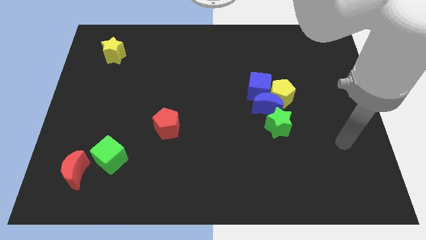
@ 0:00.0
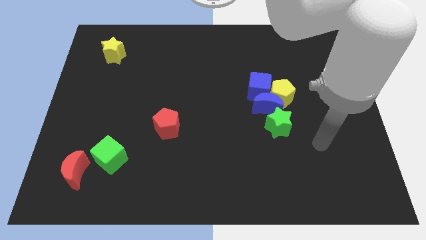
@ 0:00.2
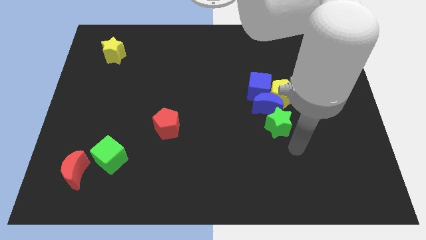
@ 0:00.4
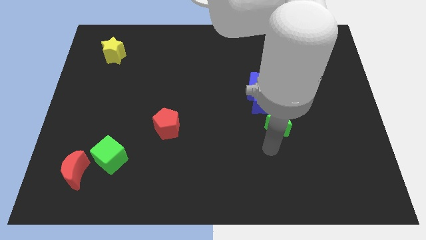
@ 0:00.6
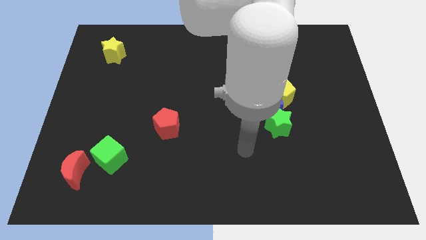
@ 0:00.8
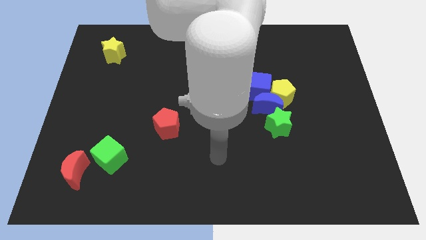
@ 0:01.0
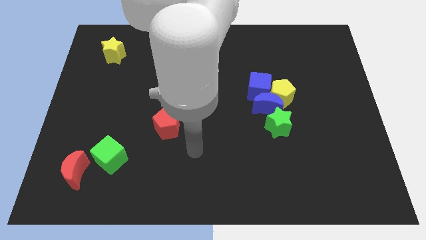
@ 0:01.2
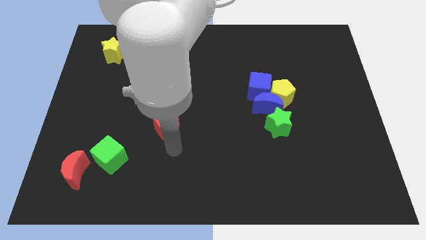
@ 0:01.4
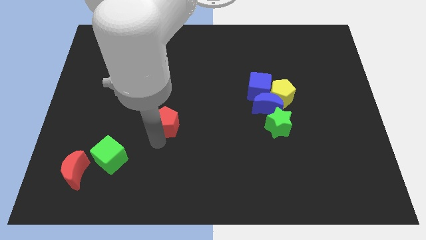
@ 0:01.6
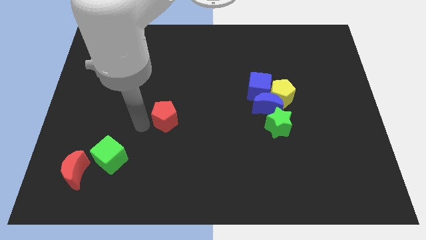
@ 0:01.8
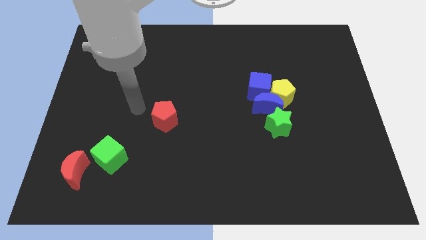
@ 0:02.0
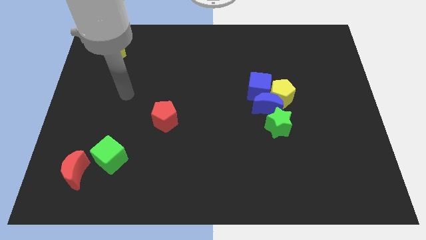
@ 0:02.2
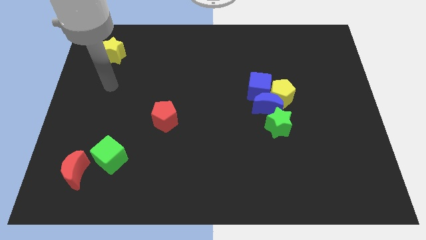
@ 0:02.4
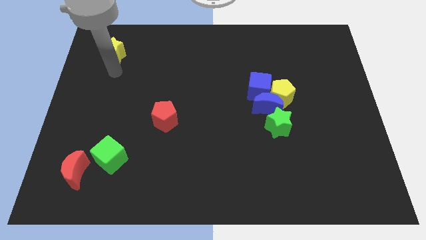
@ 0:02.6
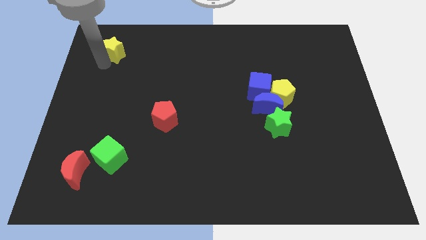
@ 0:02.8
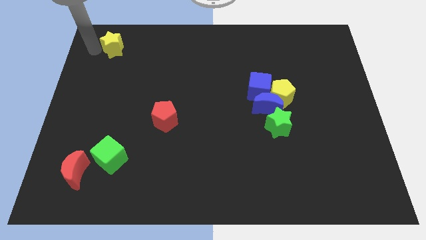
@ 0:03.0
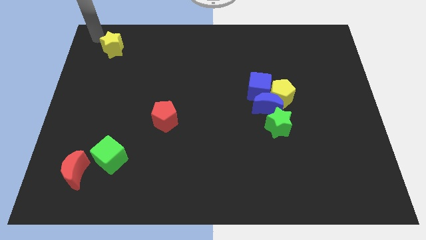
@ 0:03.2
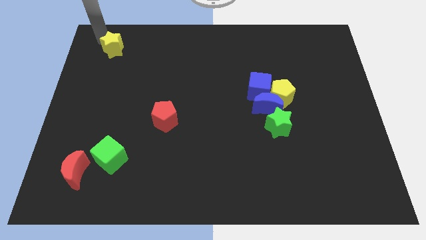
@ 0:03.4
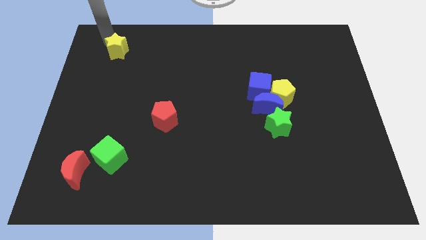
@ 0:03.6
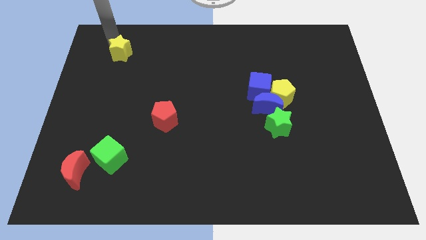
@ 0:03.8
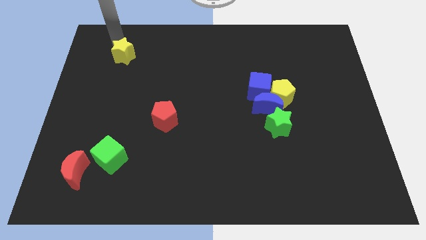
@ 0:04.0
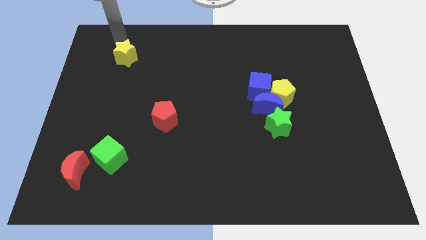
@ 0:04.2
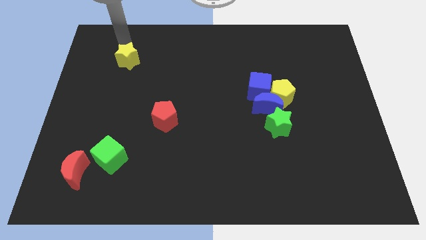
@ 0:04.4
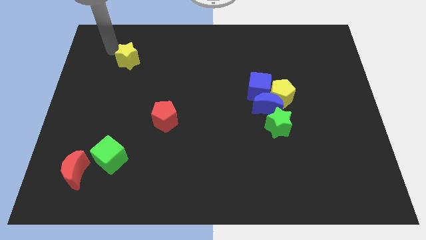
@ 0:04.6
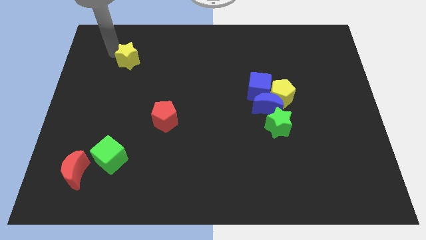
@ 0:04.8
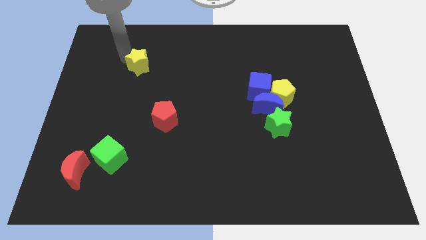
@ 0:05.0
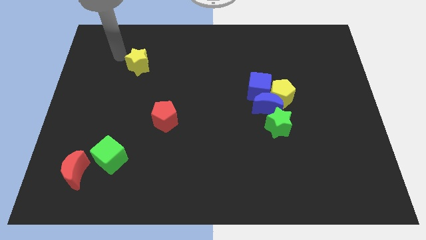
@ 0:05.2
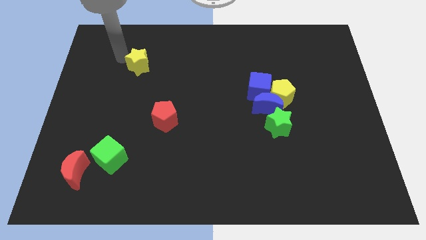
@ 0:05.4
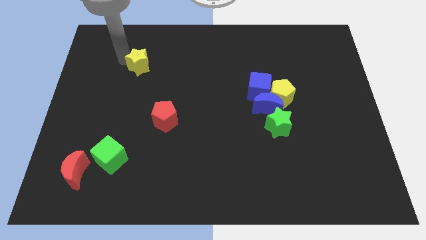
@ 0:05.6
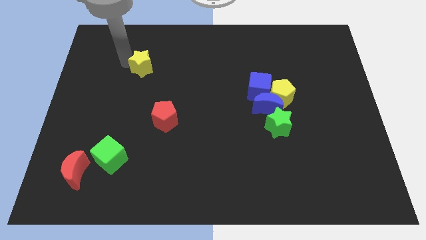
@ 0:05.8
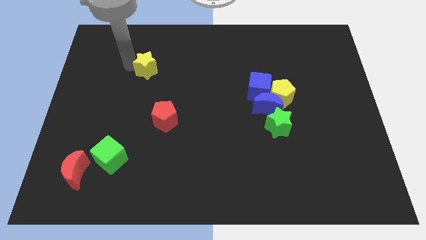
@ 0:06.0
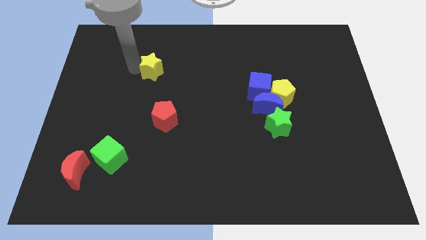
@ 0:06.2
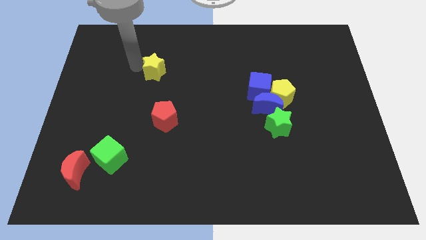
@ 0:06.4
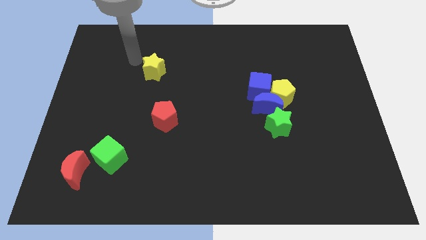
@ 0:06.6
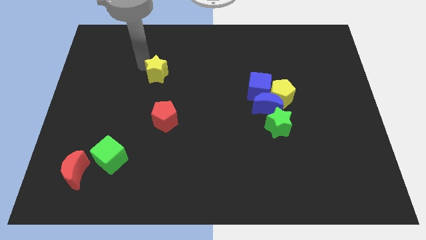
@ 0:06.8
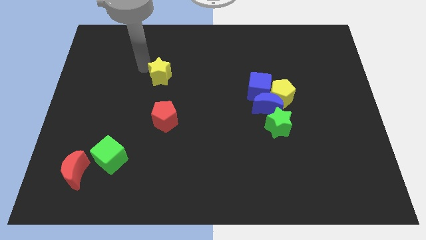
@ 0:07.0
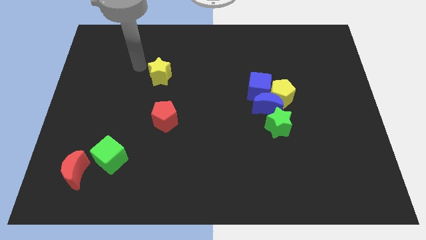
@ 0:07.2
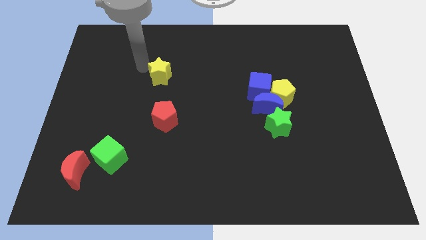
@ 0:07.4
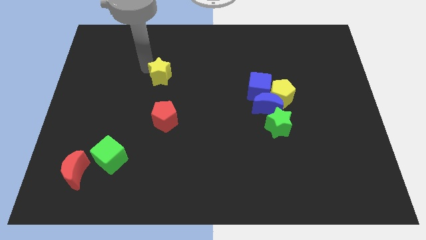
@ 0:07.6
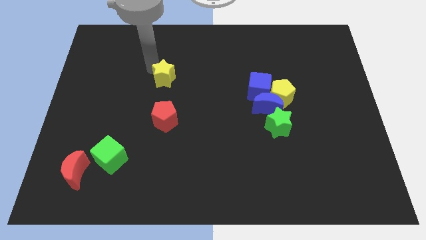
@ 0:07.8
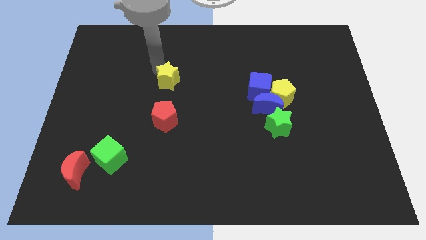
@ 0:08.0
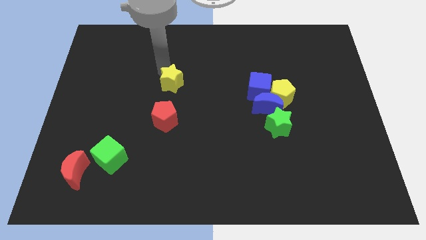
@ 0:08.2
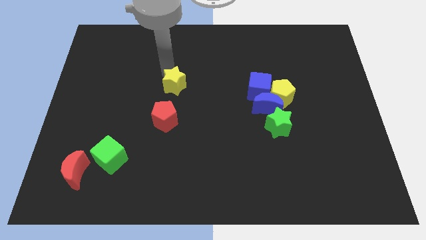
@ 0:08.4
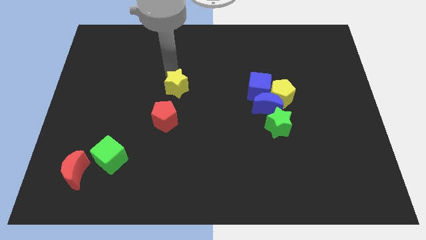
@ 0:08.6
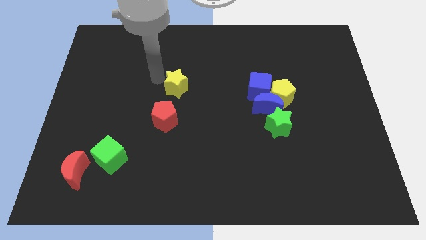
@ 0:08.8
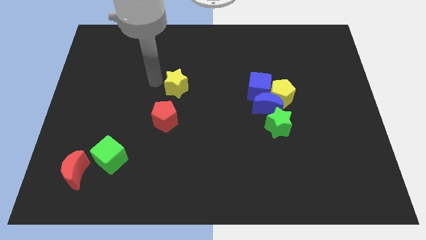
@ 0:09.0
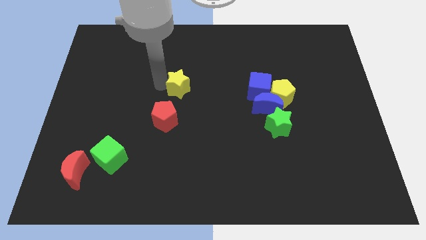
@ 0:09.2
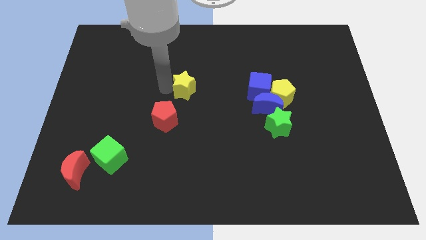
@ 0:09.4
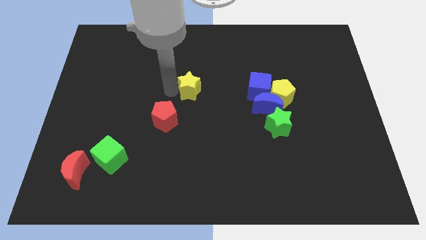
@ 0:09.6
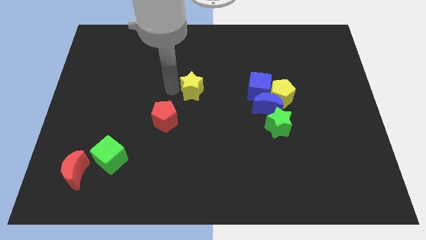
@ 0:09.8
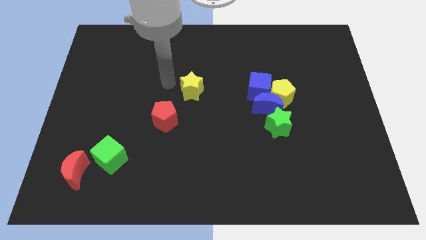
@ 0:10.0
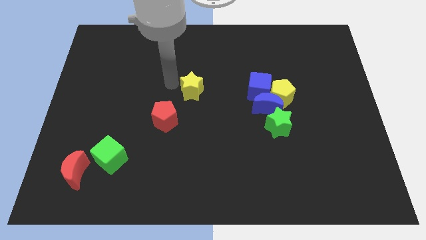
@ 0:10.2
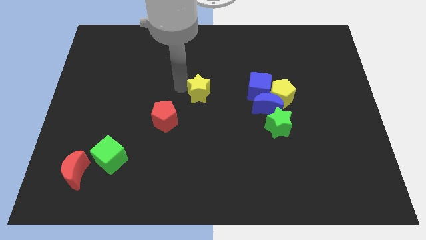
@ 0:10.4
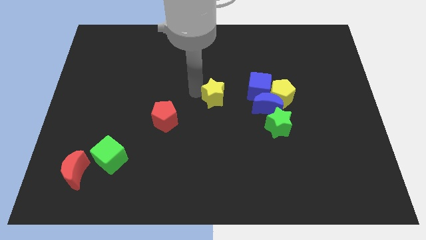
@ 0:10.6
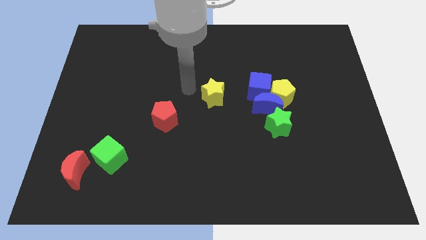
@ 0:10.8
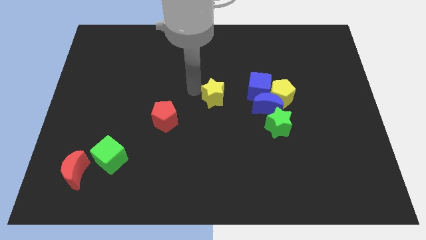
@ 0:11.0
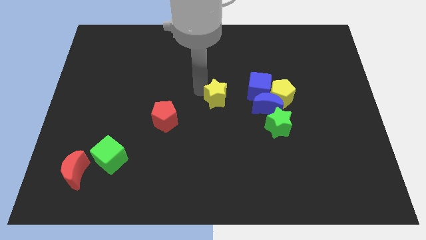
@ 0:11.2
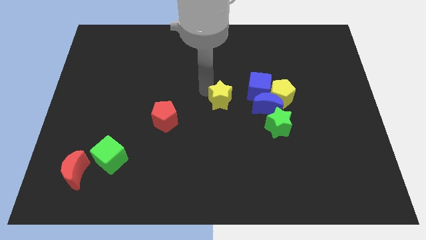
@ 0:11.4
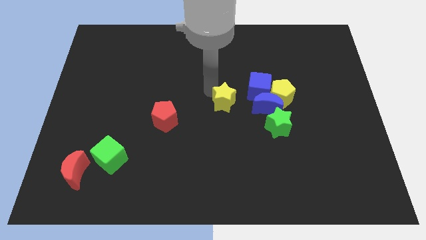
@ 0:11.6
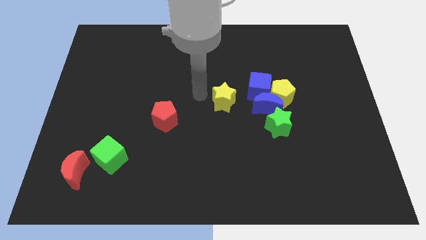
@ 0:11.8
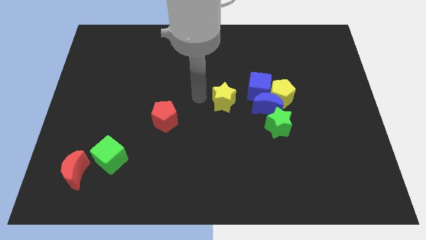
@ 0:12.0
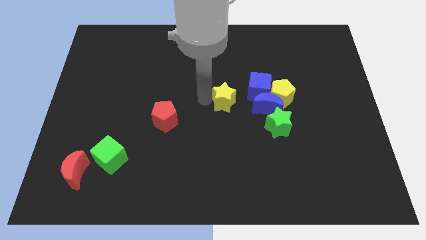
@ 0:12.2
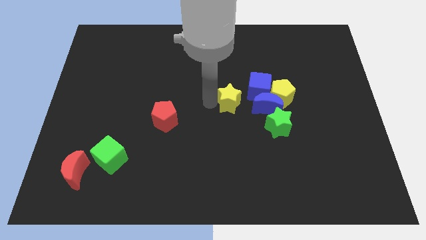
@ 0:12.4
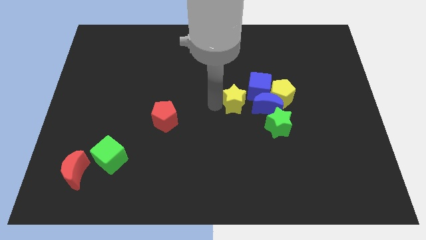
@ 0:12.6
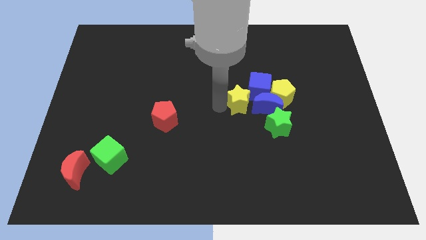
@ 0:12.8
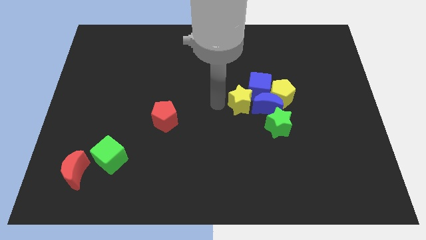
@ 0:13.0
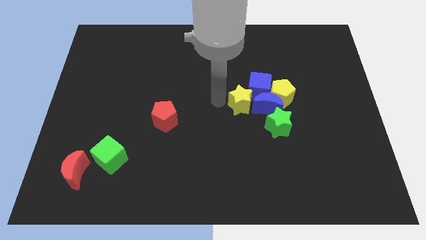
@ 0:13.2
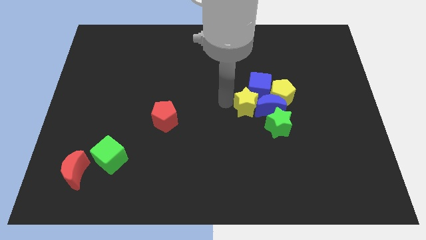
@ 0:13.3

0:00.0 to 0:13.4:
push the yellow star towards the blue moon
